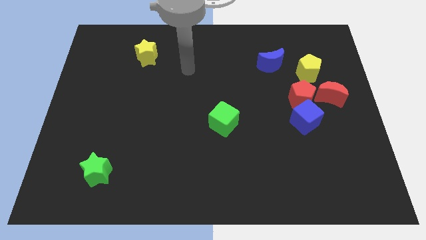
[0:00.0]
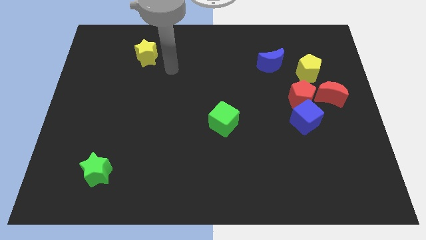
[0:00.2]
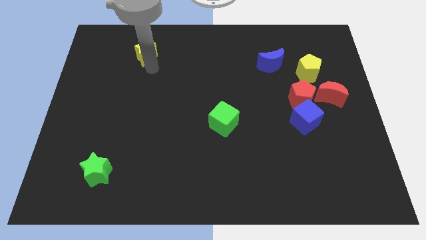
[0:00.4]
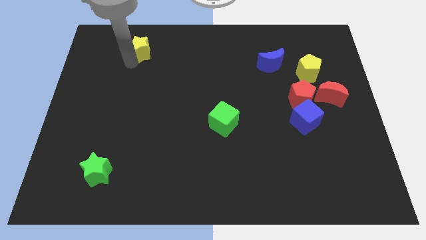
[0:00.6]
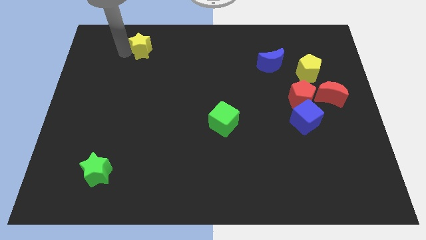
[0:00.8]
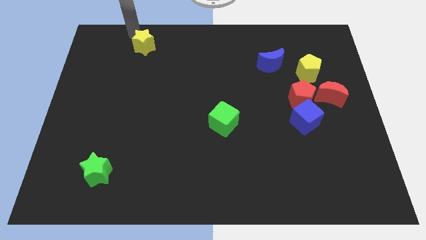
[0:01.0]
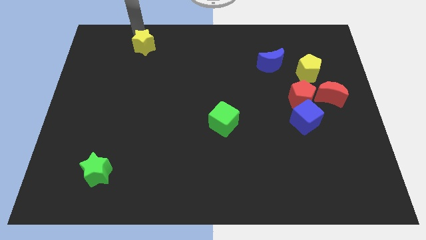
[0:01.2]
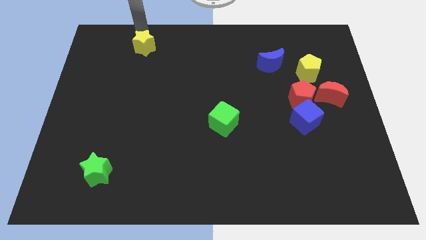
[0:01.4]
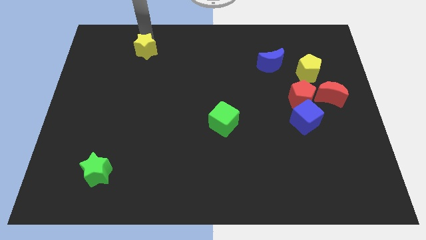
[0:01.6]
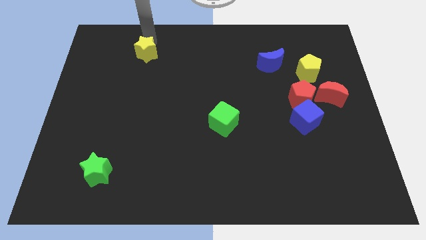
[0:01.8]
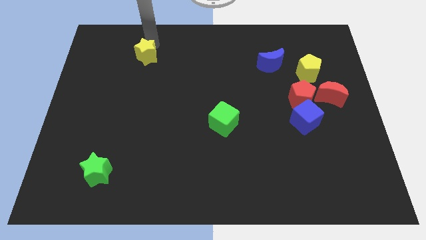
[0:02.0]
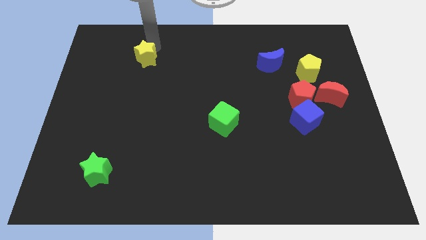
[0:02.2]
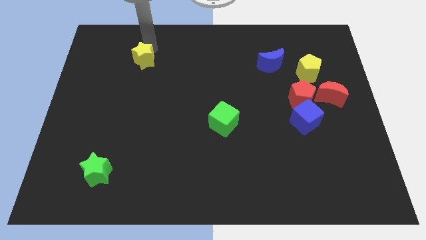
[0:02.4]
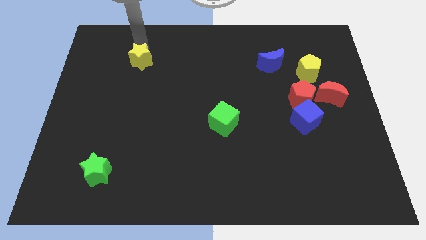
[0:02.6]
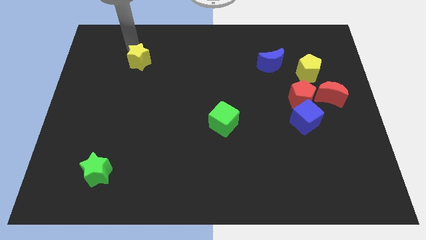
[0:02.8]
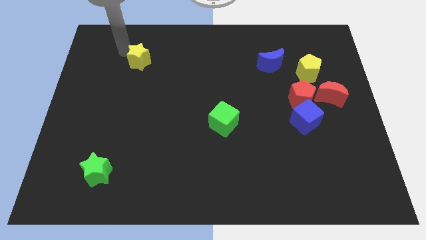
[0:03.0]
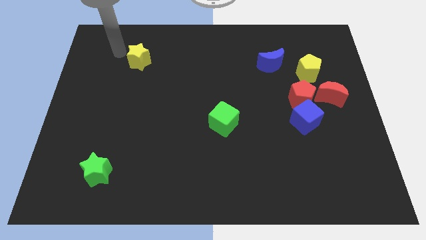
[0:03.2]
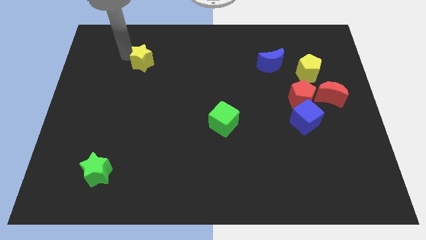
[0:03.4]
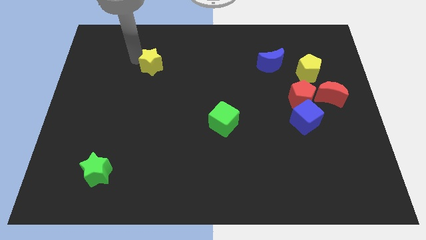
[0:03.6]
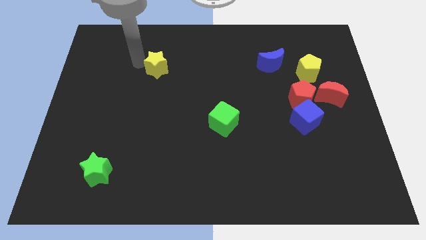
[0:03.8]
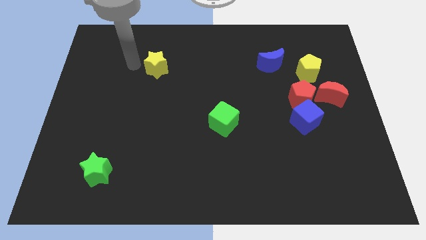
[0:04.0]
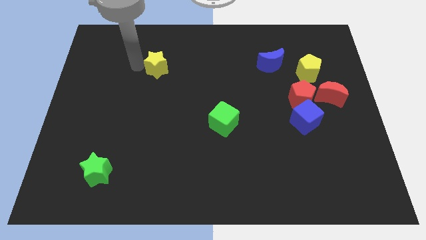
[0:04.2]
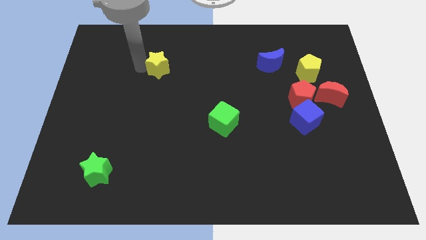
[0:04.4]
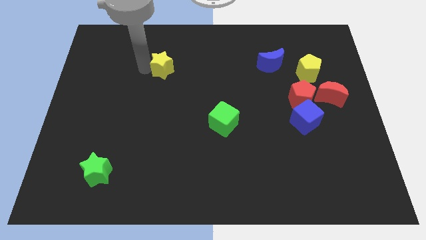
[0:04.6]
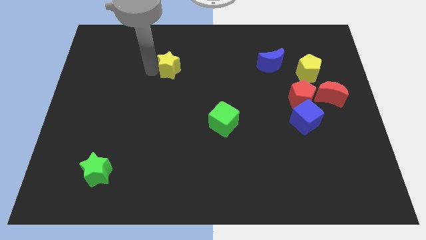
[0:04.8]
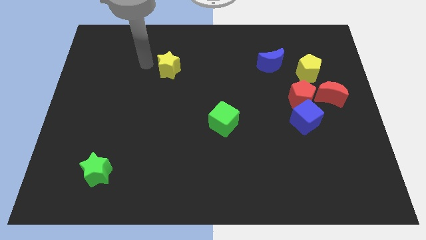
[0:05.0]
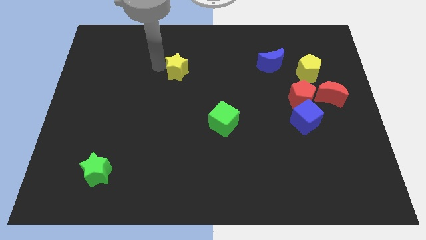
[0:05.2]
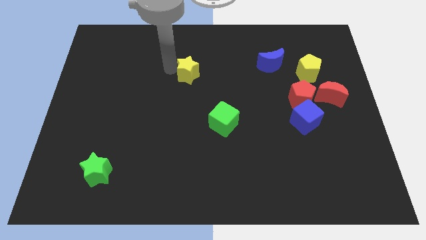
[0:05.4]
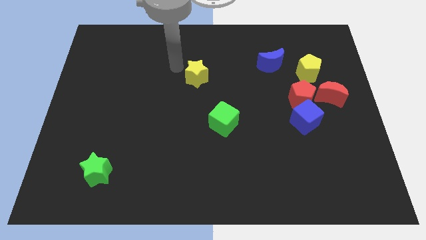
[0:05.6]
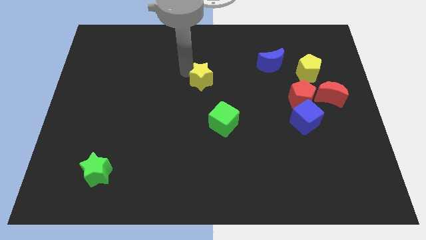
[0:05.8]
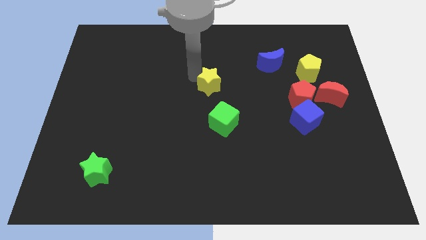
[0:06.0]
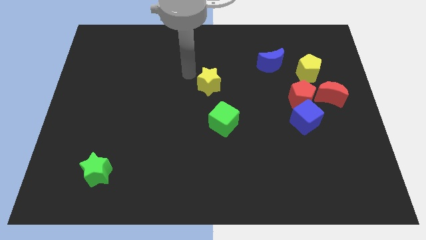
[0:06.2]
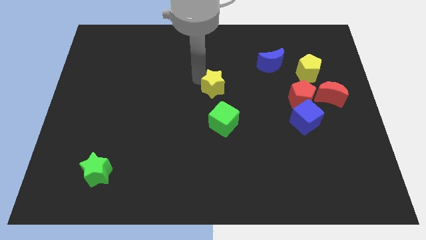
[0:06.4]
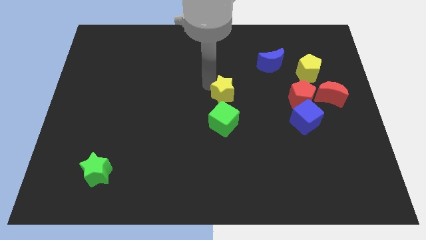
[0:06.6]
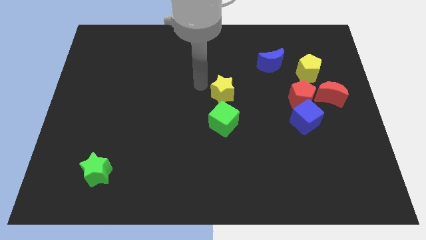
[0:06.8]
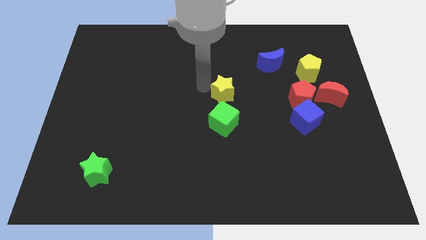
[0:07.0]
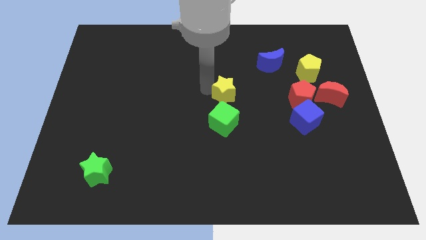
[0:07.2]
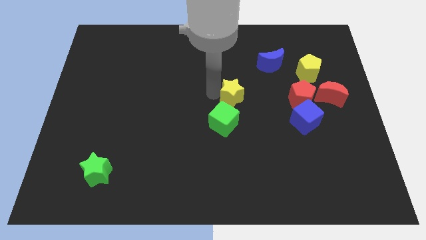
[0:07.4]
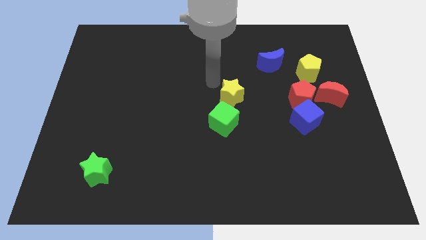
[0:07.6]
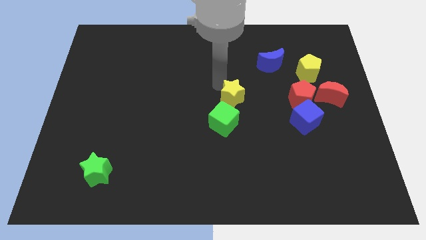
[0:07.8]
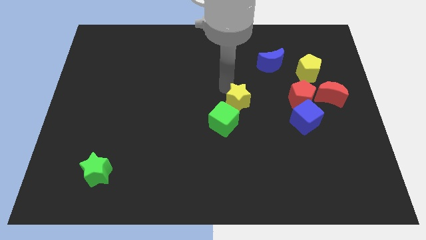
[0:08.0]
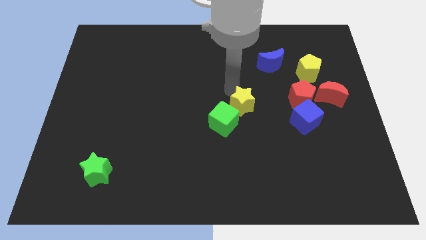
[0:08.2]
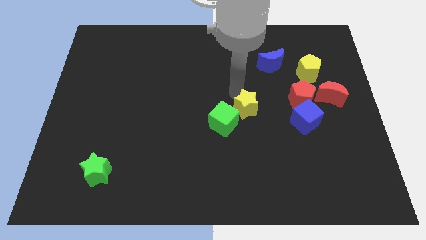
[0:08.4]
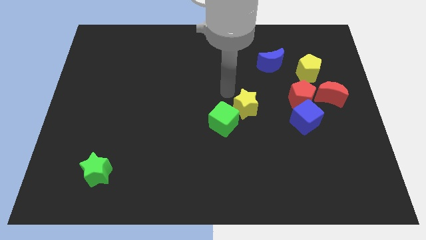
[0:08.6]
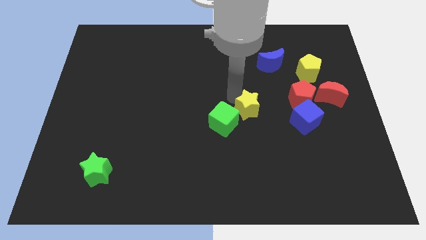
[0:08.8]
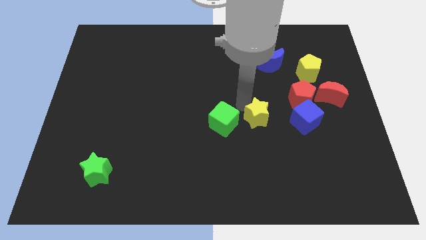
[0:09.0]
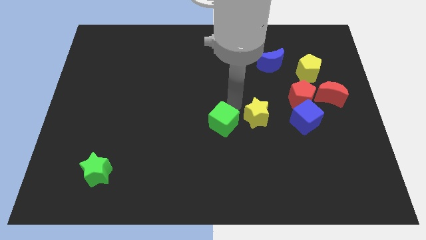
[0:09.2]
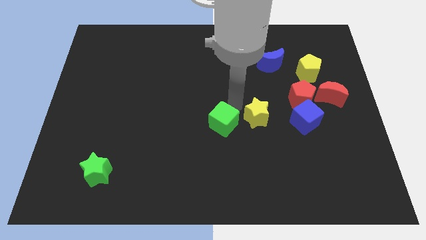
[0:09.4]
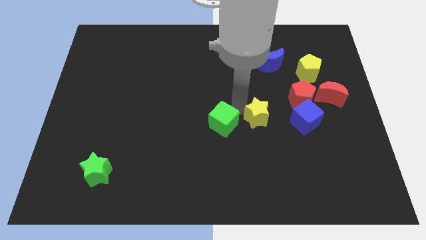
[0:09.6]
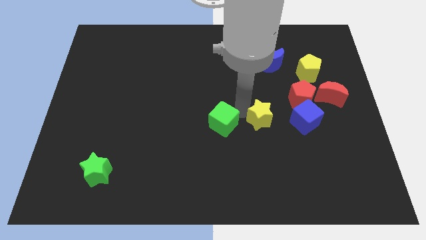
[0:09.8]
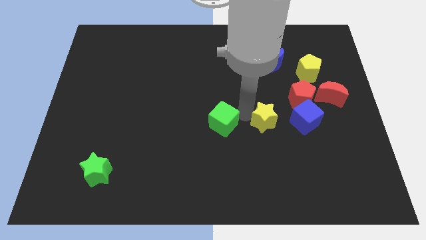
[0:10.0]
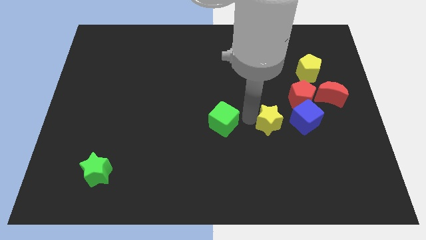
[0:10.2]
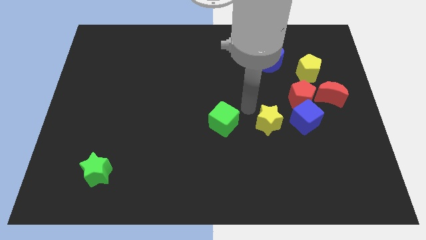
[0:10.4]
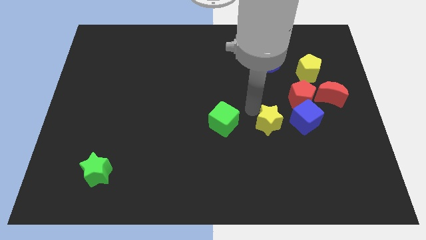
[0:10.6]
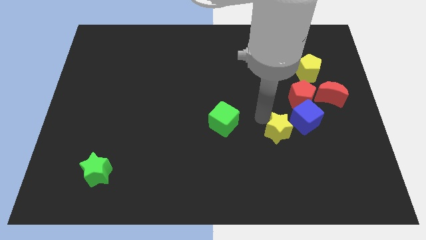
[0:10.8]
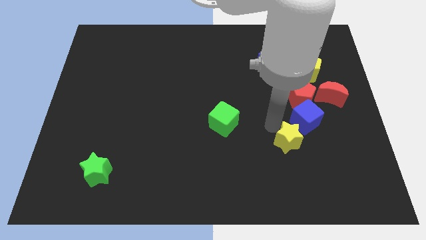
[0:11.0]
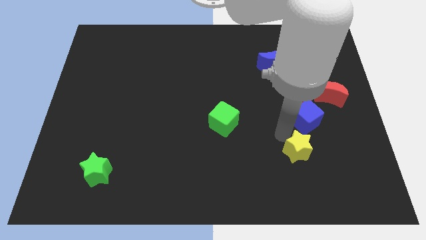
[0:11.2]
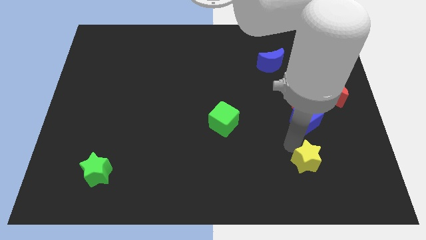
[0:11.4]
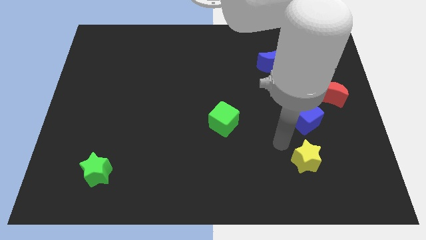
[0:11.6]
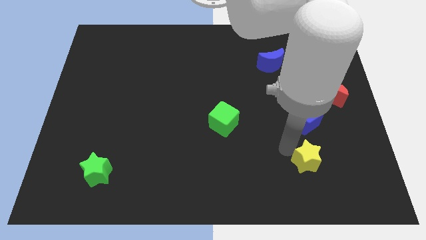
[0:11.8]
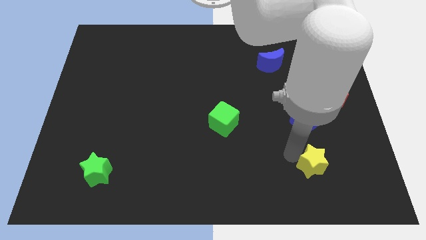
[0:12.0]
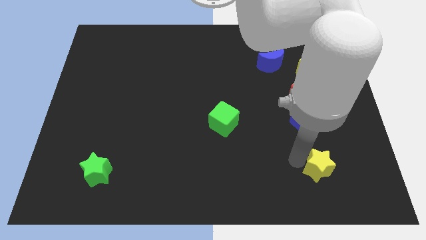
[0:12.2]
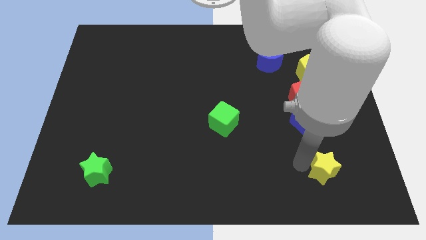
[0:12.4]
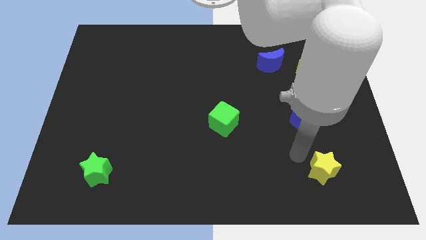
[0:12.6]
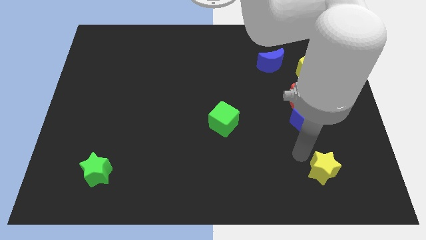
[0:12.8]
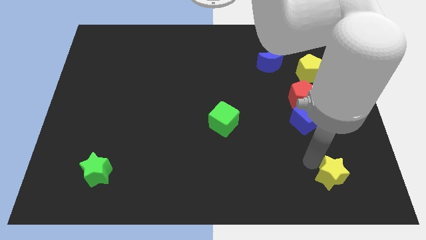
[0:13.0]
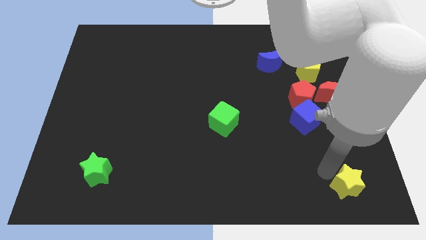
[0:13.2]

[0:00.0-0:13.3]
move the yellow star to the bottom right of the board
